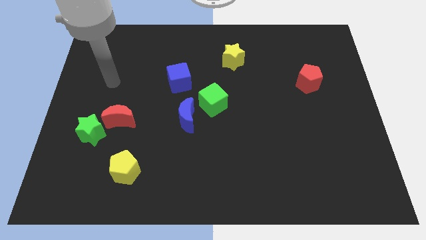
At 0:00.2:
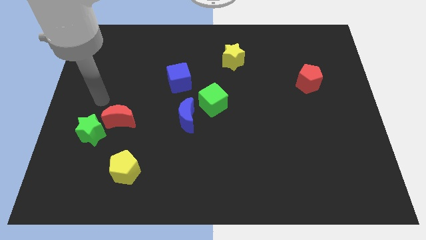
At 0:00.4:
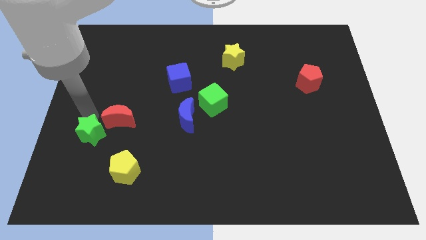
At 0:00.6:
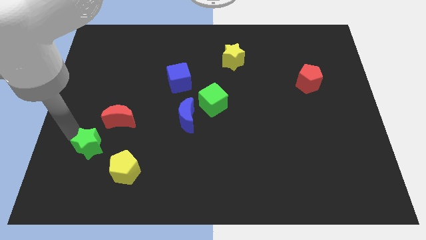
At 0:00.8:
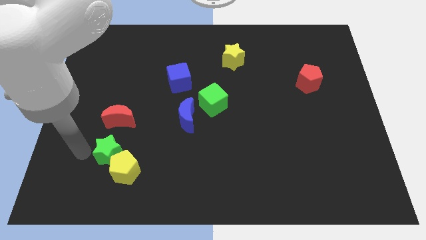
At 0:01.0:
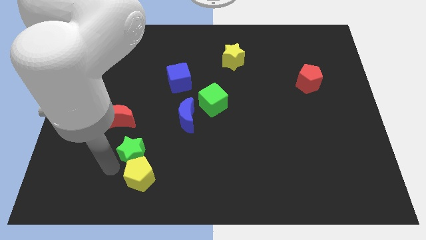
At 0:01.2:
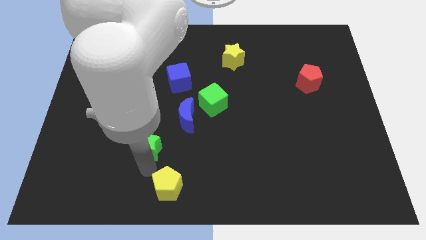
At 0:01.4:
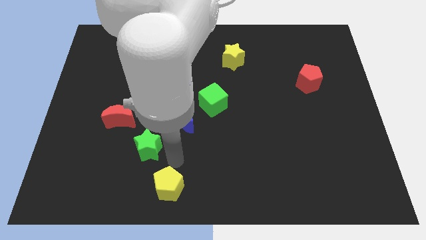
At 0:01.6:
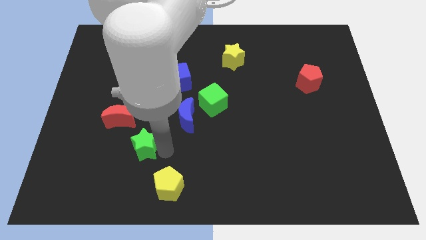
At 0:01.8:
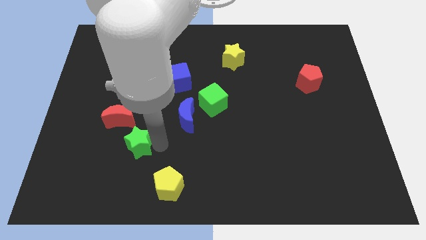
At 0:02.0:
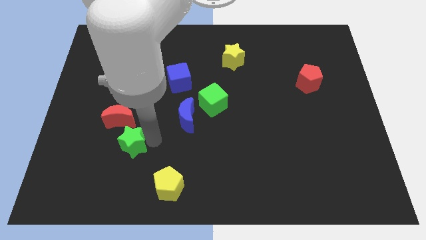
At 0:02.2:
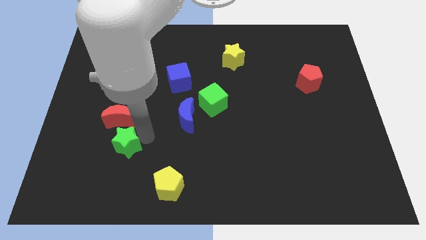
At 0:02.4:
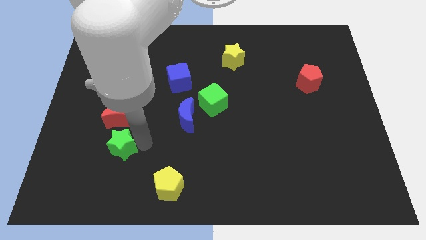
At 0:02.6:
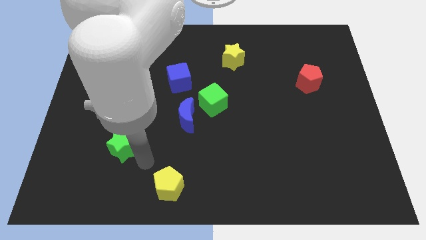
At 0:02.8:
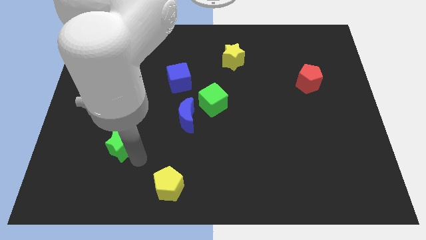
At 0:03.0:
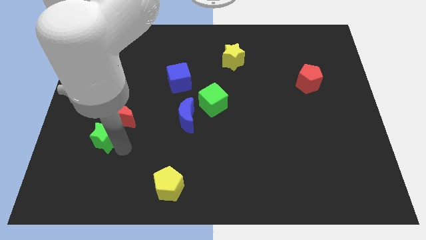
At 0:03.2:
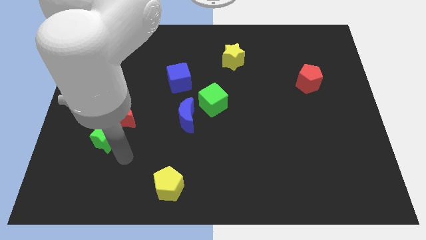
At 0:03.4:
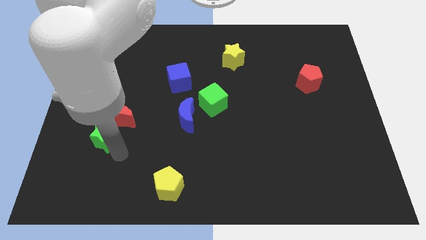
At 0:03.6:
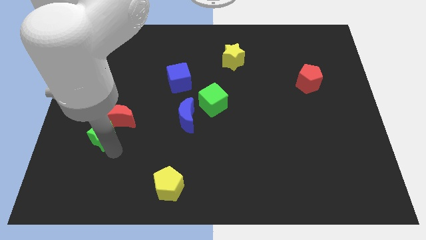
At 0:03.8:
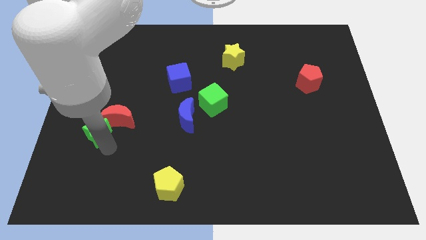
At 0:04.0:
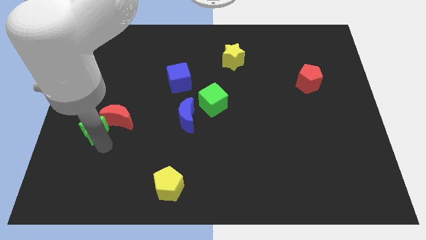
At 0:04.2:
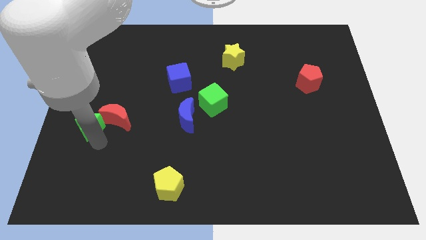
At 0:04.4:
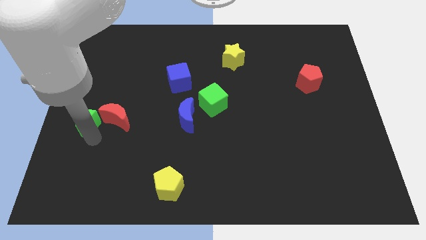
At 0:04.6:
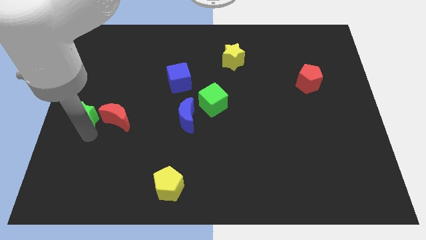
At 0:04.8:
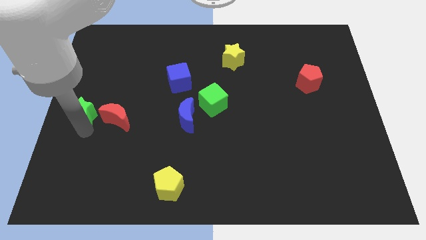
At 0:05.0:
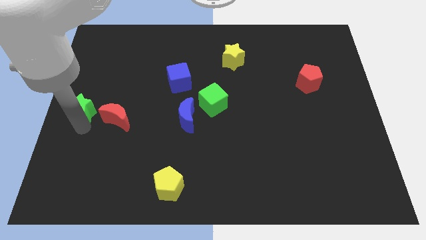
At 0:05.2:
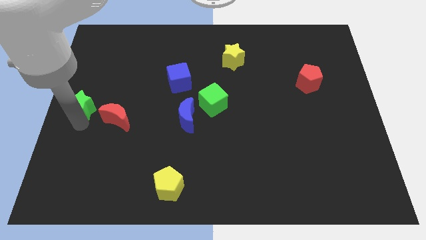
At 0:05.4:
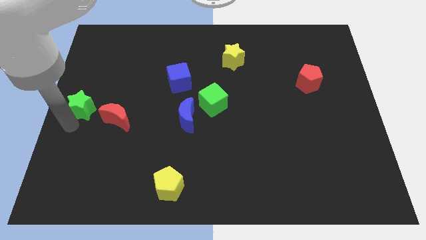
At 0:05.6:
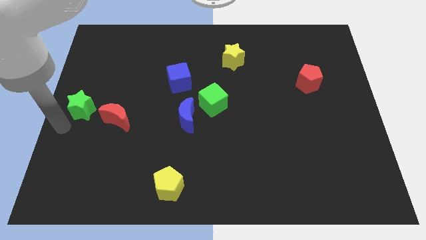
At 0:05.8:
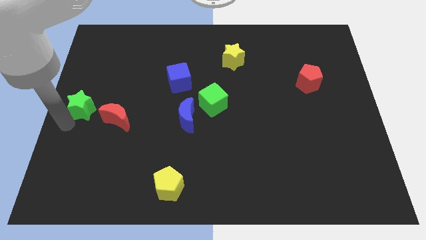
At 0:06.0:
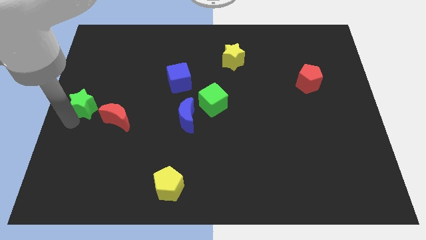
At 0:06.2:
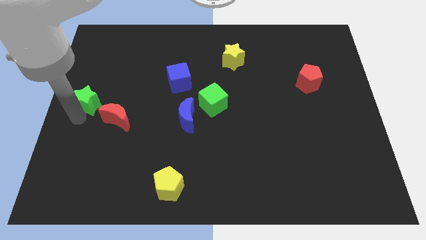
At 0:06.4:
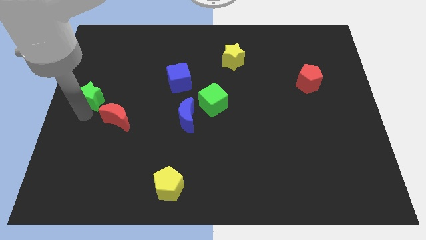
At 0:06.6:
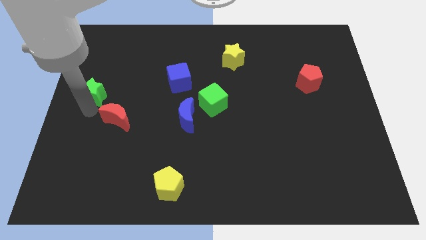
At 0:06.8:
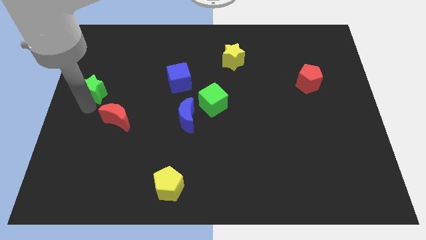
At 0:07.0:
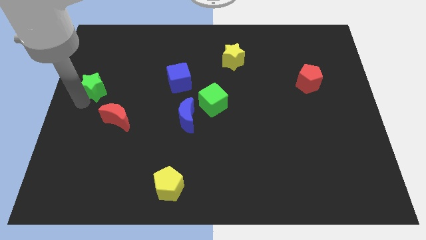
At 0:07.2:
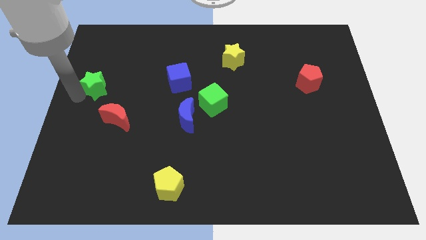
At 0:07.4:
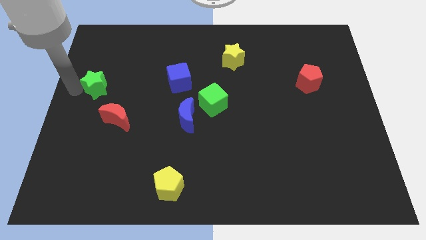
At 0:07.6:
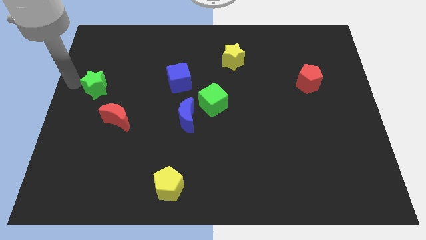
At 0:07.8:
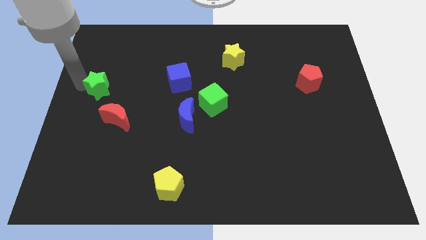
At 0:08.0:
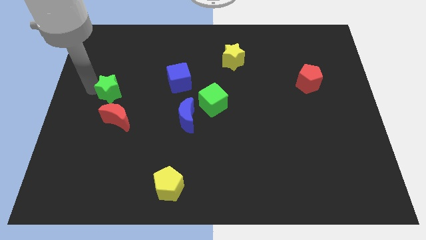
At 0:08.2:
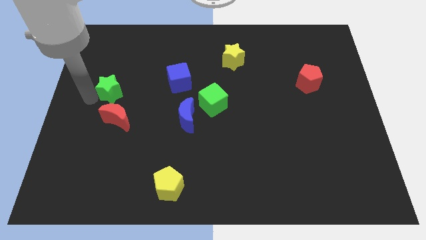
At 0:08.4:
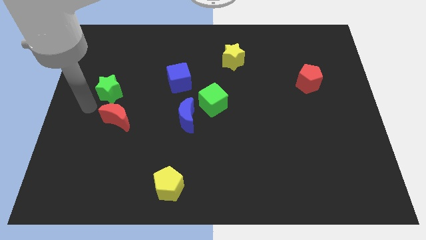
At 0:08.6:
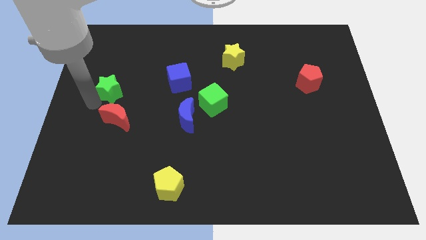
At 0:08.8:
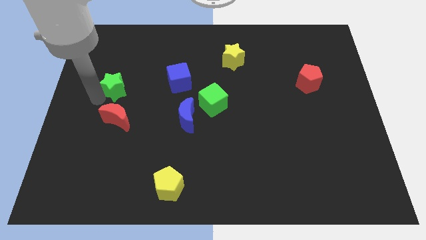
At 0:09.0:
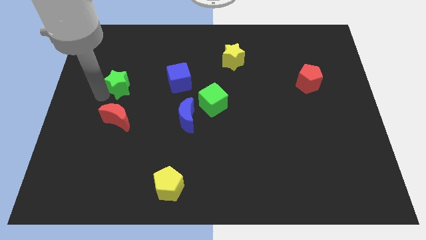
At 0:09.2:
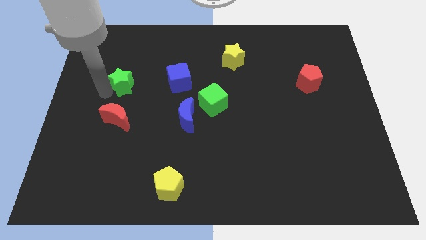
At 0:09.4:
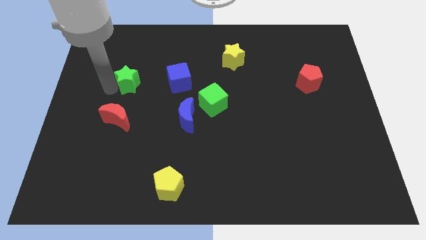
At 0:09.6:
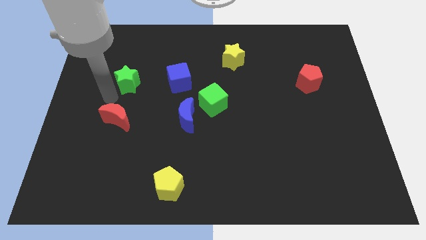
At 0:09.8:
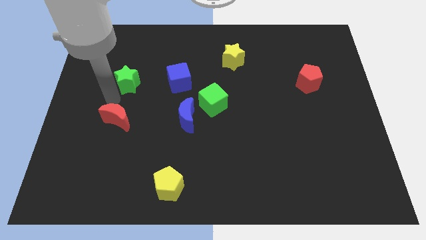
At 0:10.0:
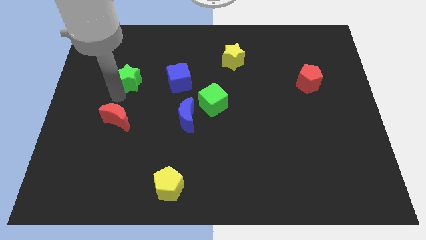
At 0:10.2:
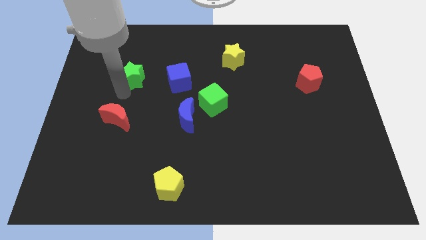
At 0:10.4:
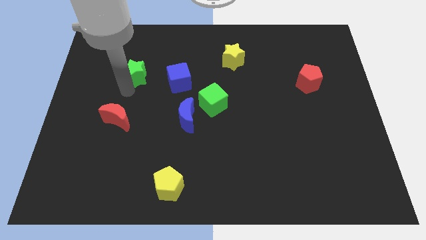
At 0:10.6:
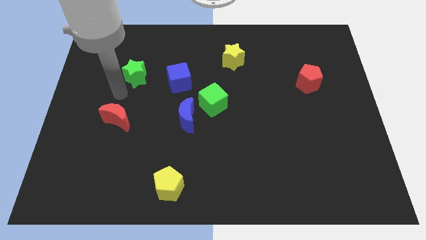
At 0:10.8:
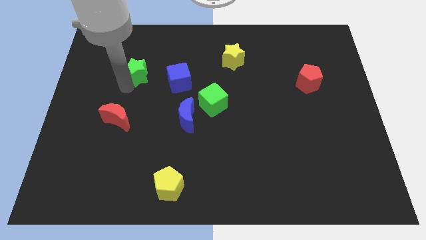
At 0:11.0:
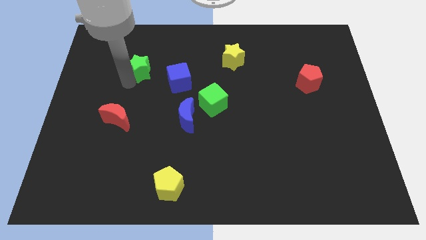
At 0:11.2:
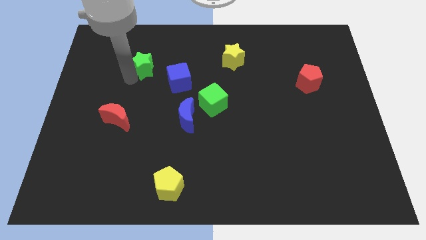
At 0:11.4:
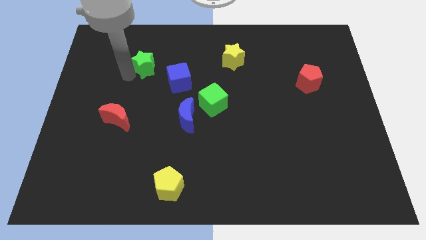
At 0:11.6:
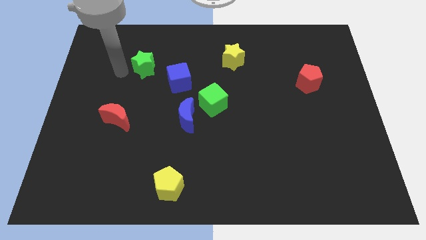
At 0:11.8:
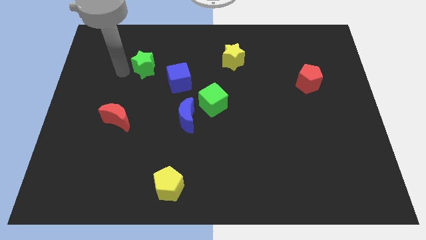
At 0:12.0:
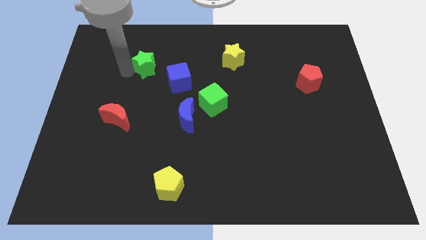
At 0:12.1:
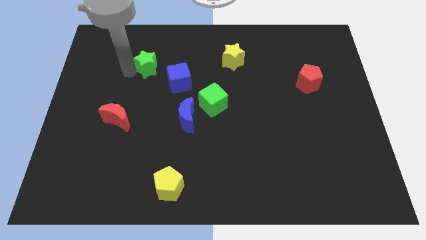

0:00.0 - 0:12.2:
slide the green star diagonally upwards and to the right

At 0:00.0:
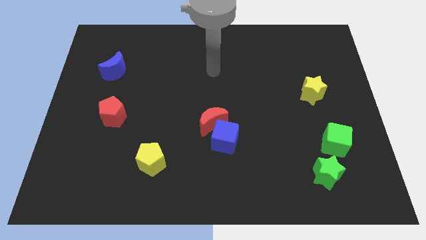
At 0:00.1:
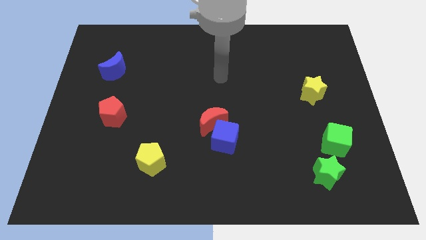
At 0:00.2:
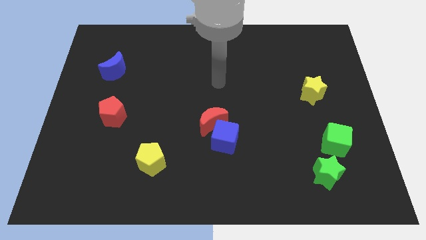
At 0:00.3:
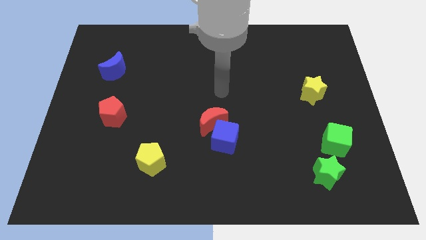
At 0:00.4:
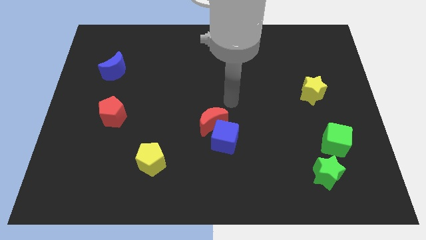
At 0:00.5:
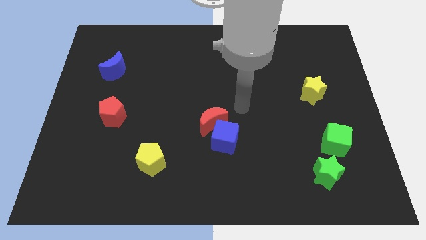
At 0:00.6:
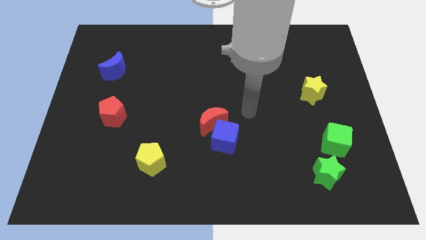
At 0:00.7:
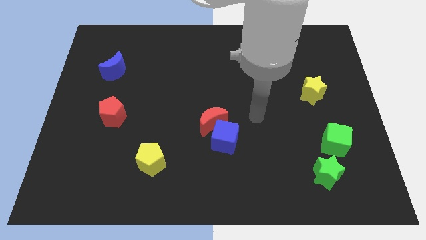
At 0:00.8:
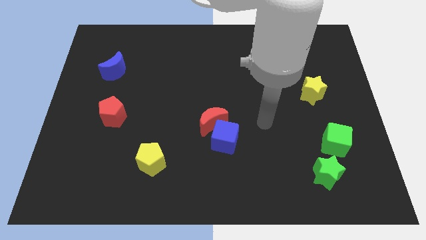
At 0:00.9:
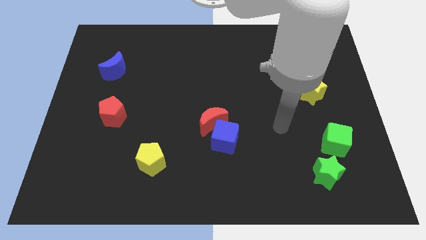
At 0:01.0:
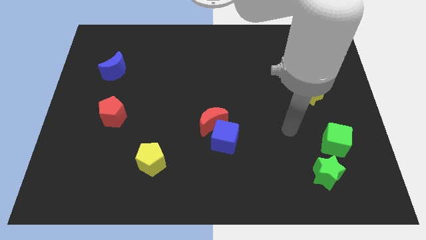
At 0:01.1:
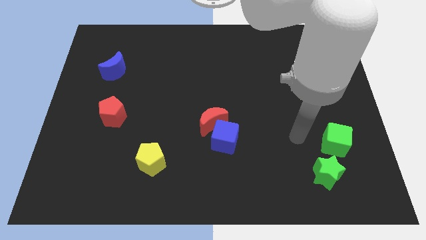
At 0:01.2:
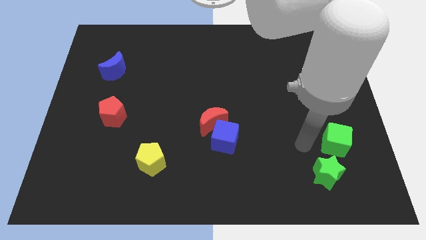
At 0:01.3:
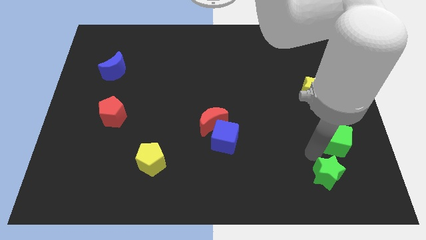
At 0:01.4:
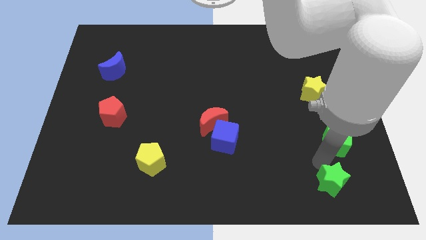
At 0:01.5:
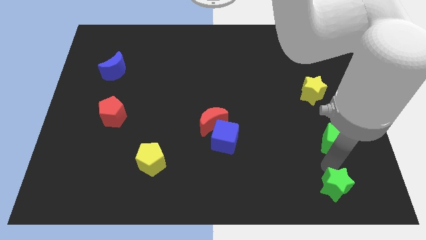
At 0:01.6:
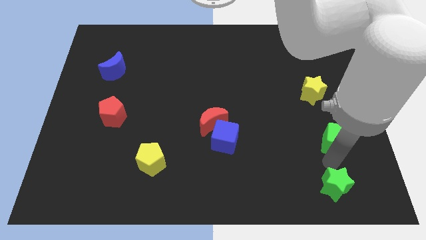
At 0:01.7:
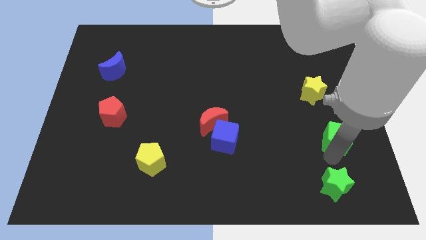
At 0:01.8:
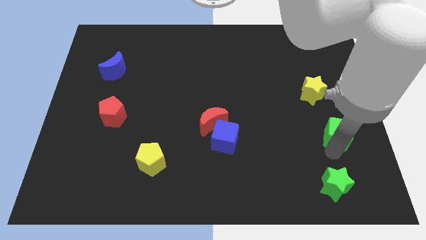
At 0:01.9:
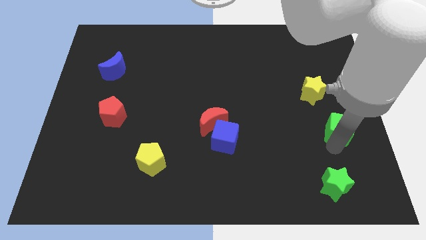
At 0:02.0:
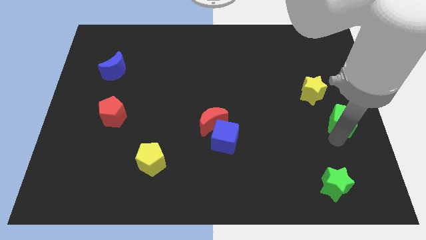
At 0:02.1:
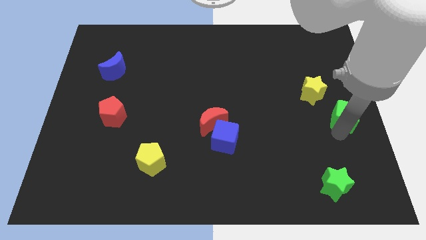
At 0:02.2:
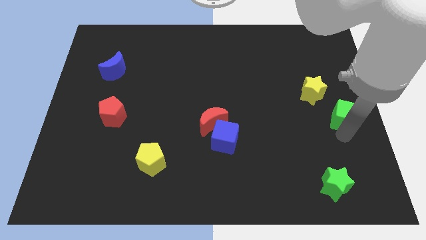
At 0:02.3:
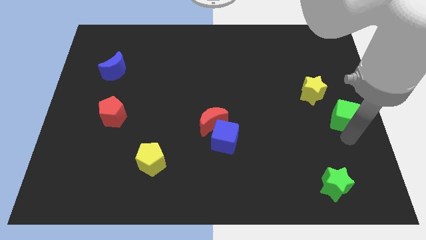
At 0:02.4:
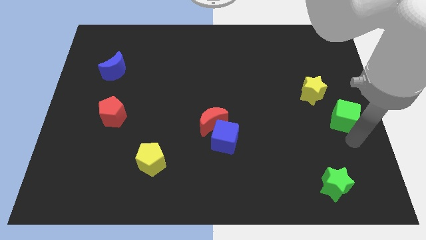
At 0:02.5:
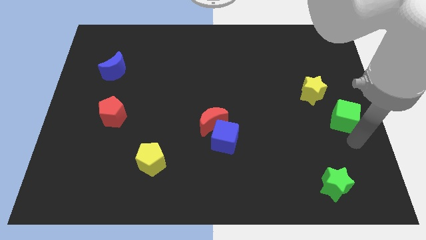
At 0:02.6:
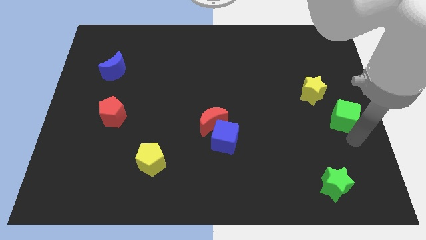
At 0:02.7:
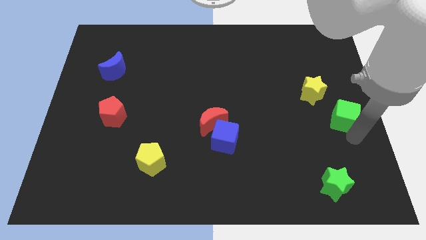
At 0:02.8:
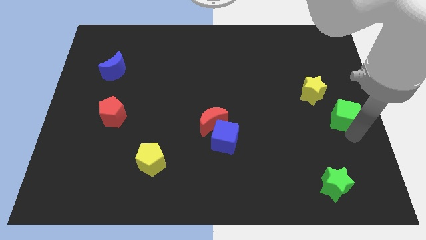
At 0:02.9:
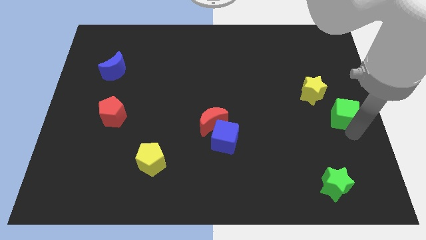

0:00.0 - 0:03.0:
slide the green cube somewhat up
